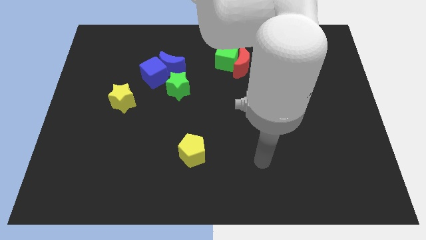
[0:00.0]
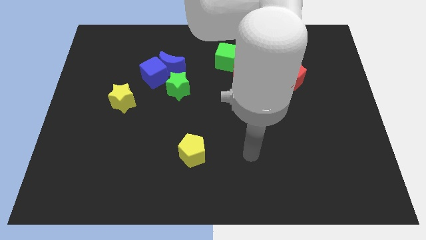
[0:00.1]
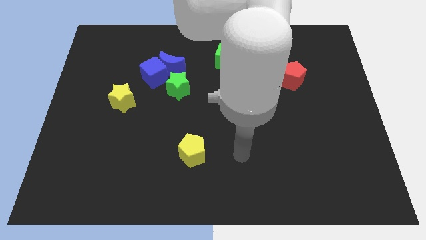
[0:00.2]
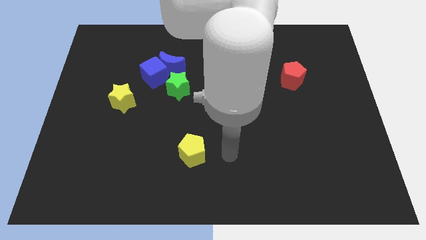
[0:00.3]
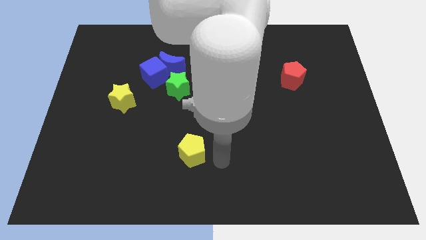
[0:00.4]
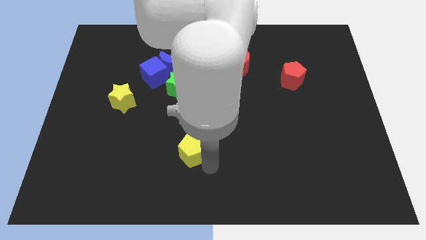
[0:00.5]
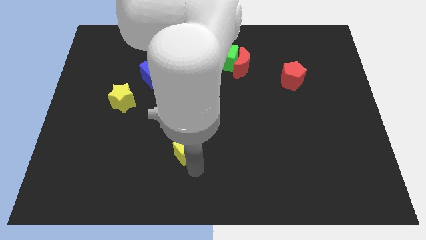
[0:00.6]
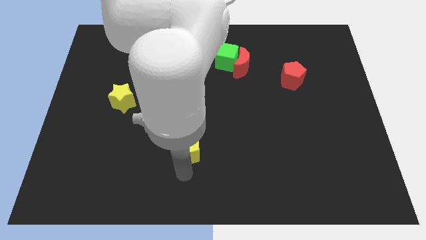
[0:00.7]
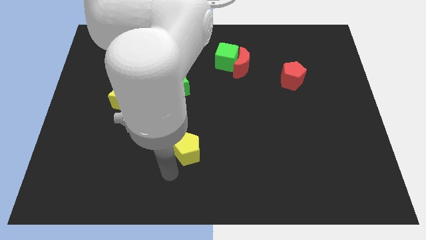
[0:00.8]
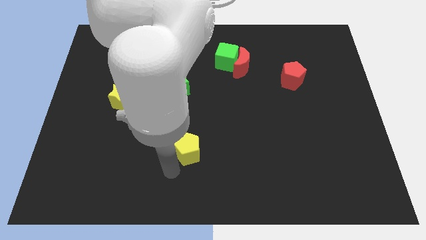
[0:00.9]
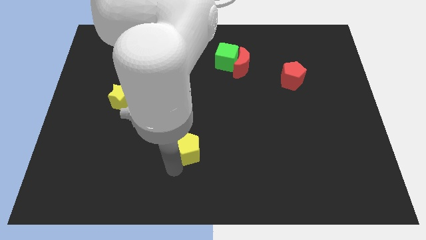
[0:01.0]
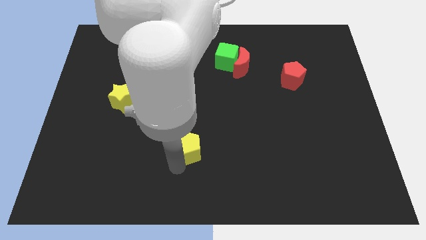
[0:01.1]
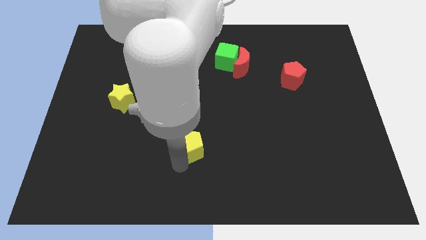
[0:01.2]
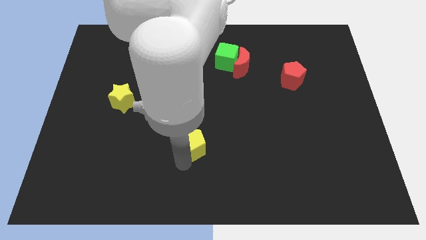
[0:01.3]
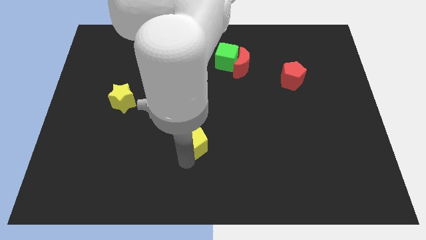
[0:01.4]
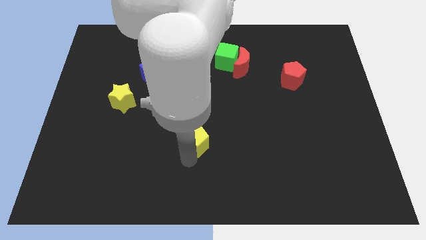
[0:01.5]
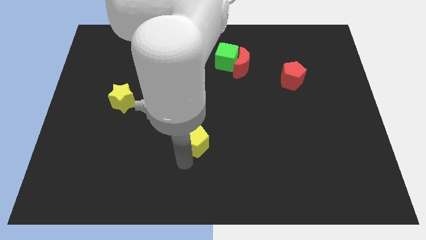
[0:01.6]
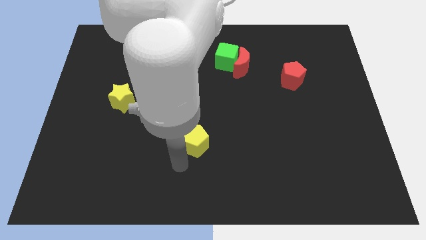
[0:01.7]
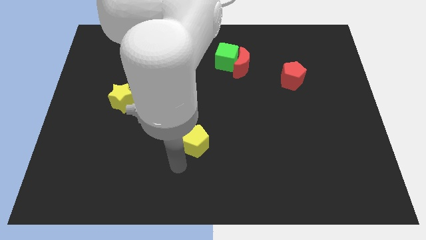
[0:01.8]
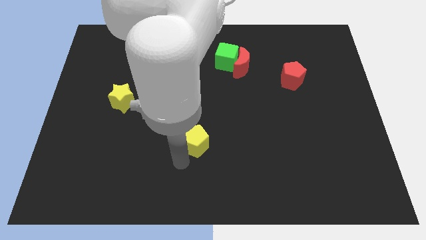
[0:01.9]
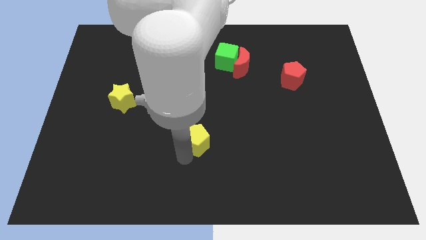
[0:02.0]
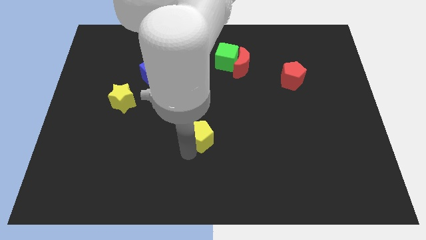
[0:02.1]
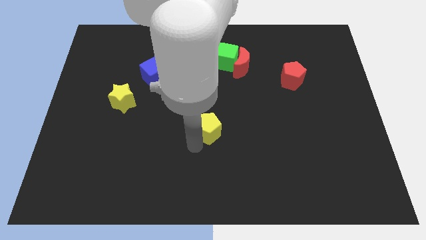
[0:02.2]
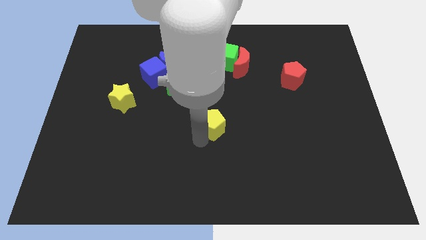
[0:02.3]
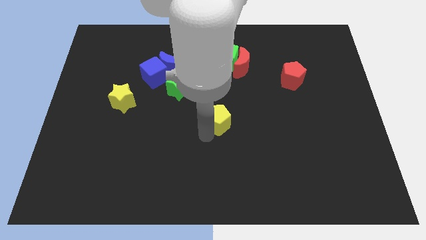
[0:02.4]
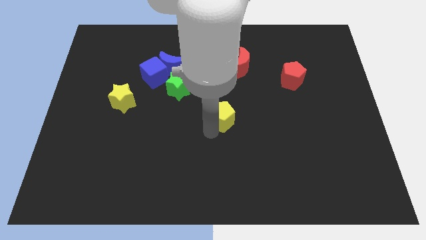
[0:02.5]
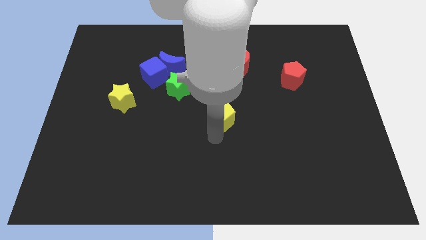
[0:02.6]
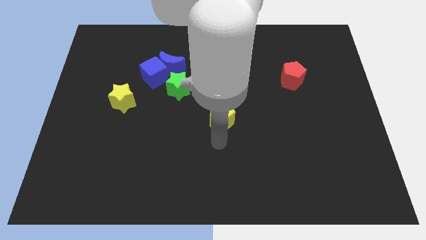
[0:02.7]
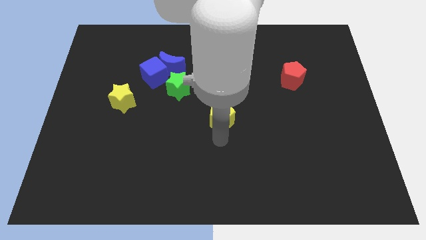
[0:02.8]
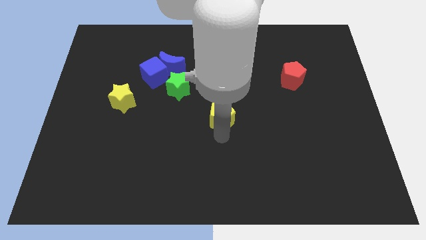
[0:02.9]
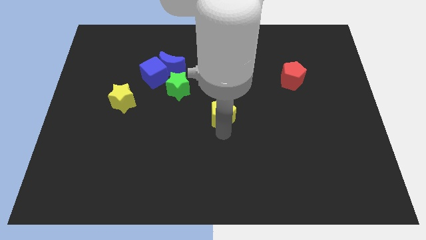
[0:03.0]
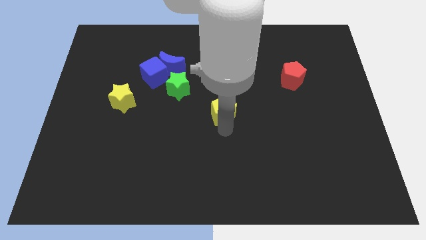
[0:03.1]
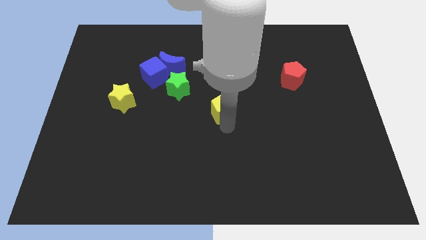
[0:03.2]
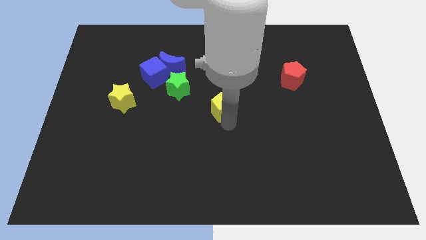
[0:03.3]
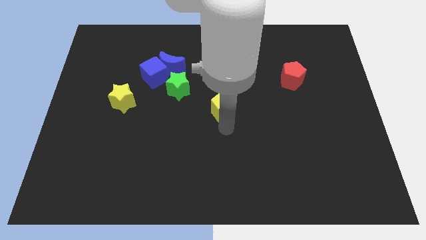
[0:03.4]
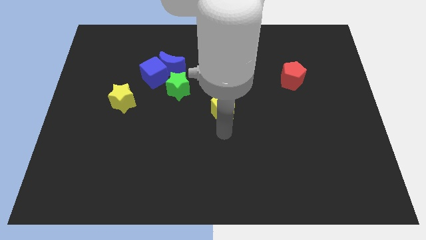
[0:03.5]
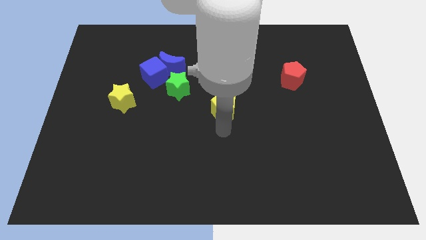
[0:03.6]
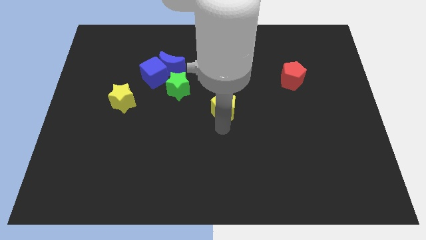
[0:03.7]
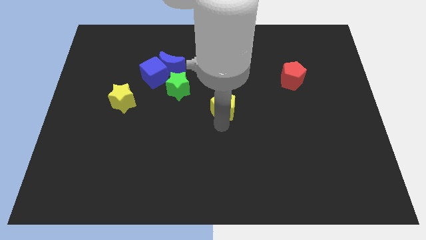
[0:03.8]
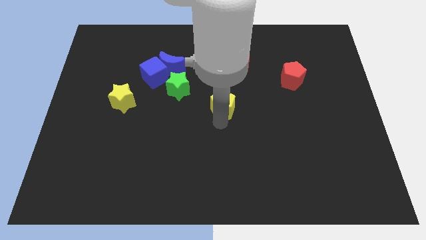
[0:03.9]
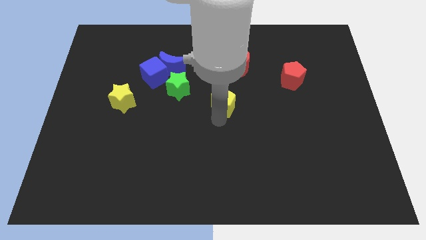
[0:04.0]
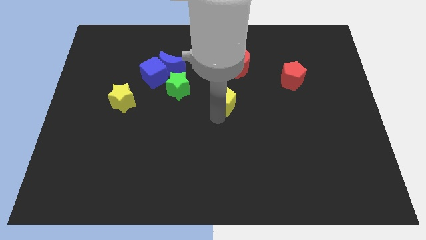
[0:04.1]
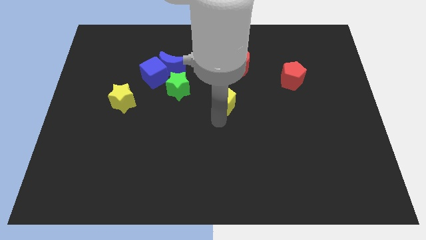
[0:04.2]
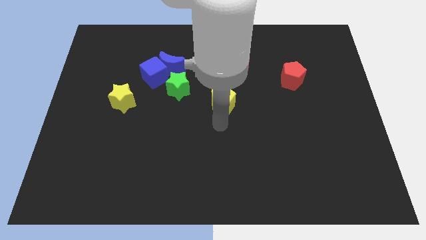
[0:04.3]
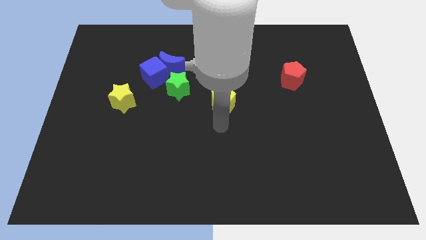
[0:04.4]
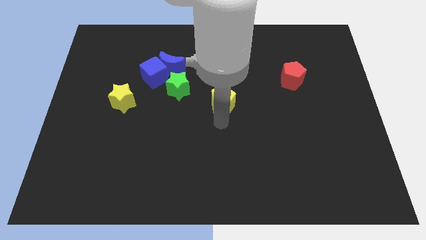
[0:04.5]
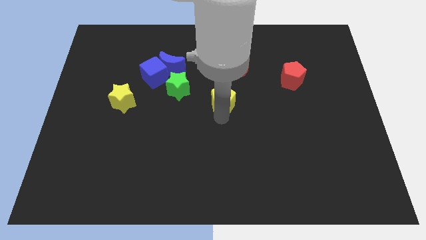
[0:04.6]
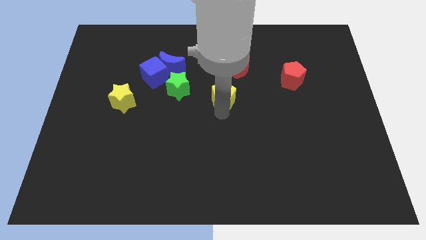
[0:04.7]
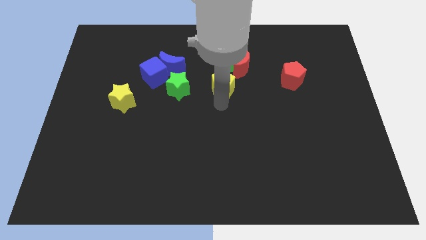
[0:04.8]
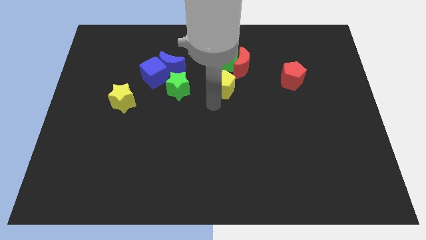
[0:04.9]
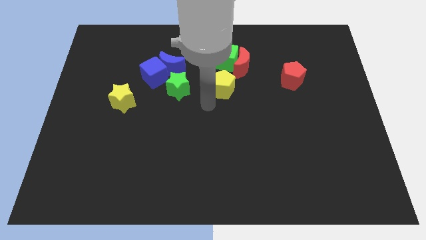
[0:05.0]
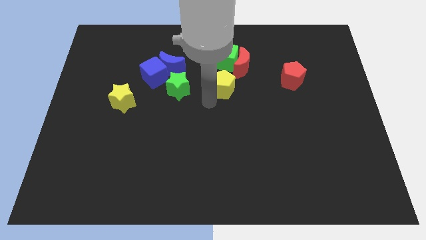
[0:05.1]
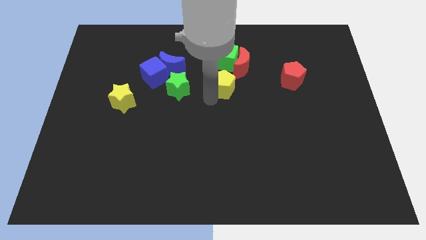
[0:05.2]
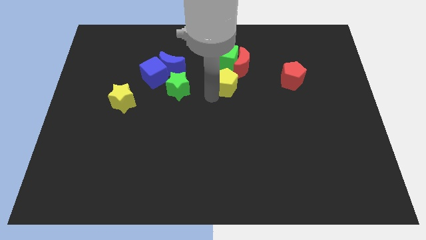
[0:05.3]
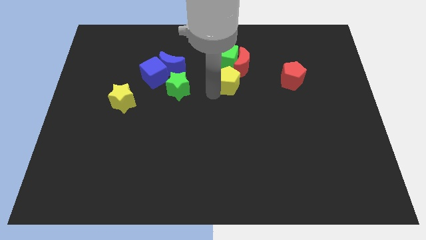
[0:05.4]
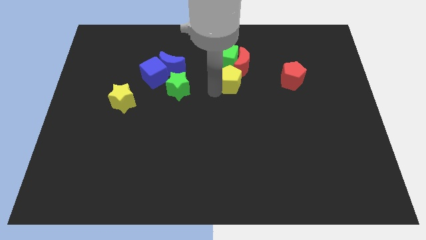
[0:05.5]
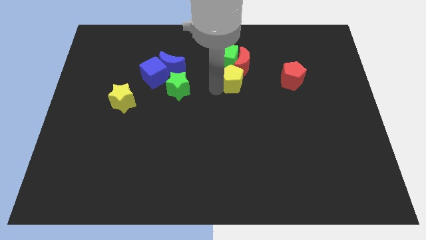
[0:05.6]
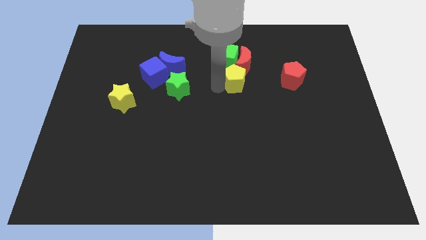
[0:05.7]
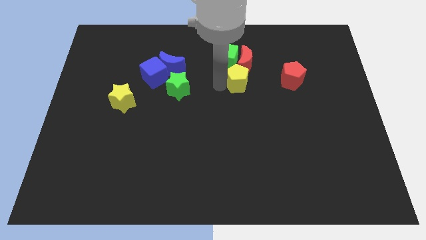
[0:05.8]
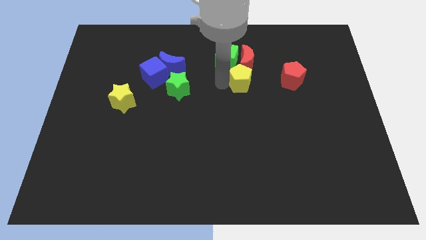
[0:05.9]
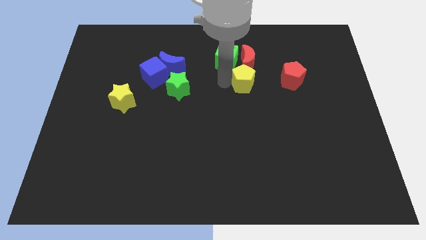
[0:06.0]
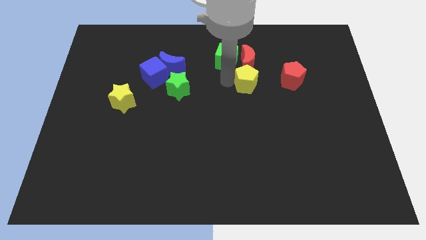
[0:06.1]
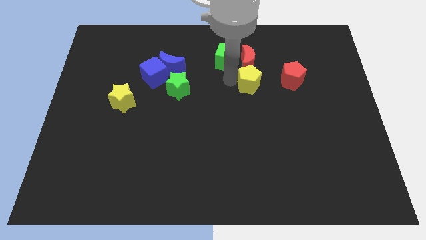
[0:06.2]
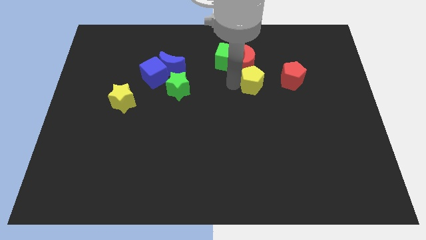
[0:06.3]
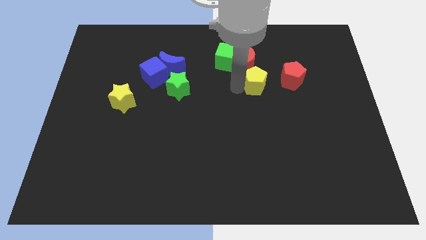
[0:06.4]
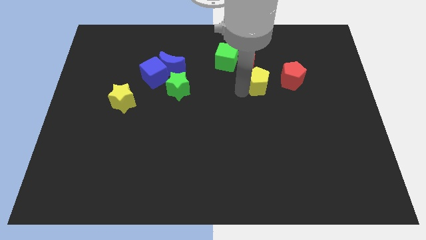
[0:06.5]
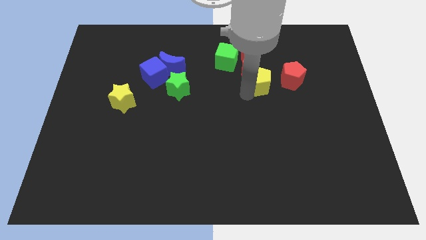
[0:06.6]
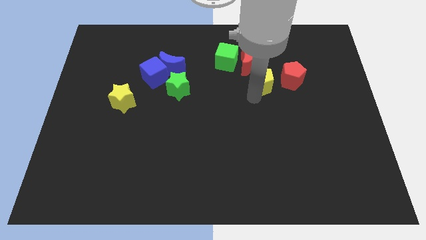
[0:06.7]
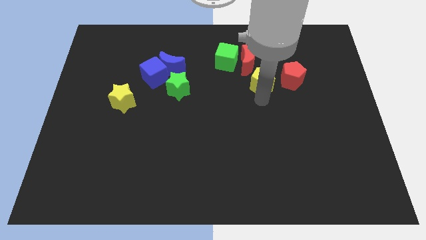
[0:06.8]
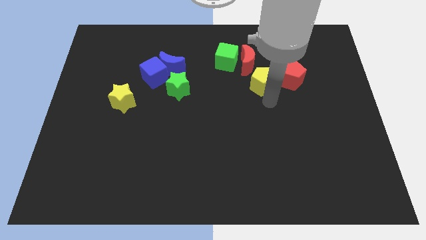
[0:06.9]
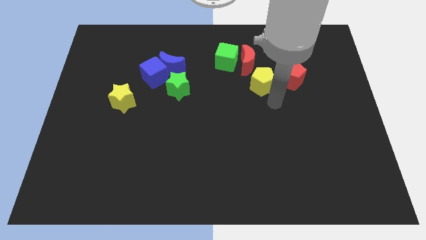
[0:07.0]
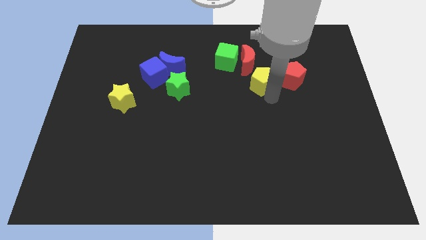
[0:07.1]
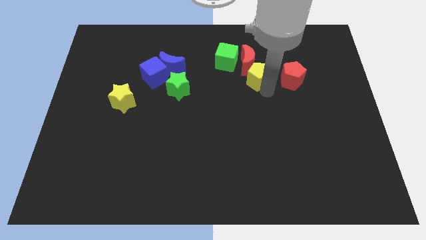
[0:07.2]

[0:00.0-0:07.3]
push the yellow pentagon towards the red moon
